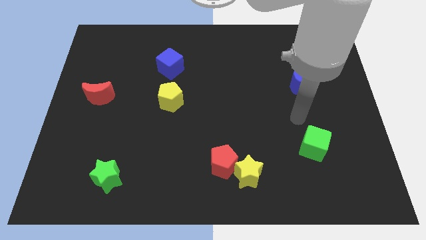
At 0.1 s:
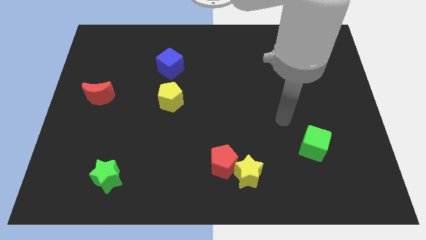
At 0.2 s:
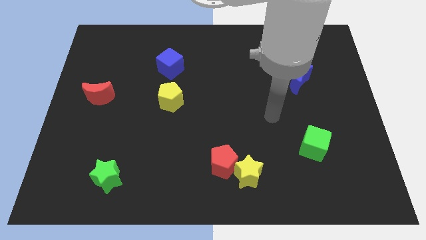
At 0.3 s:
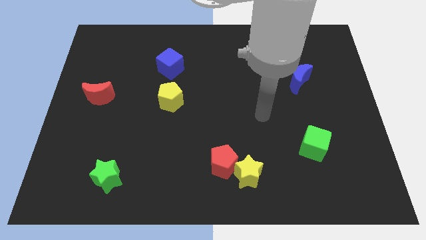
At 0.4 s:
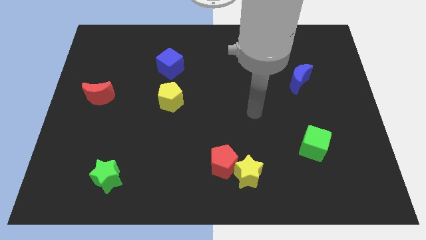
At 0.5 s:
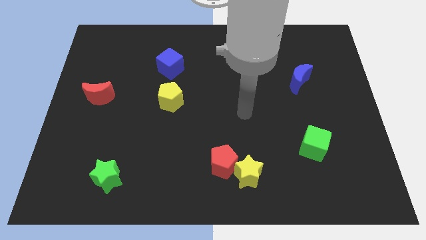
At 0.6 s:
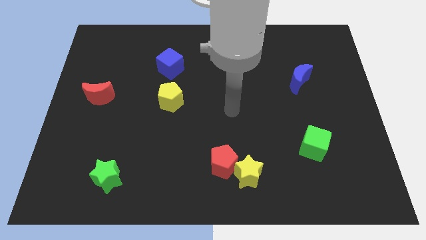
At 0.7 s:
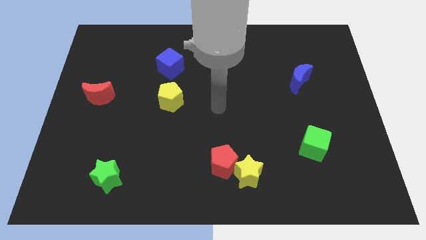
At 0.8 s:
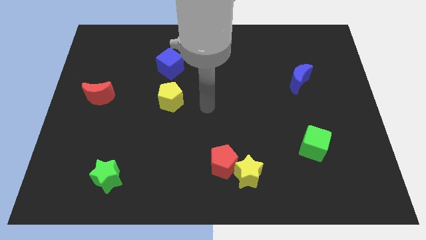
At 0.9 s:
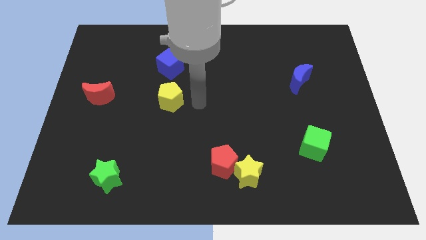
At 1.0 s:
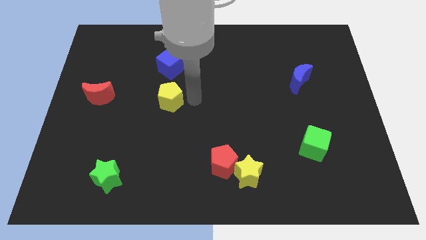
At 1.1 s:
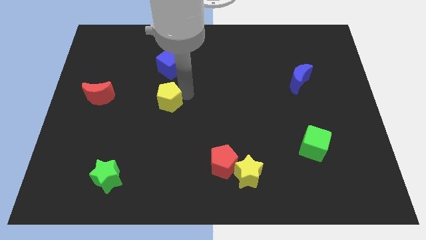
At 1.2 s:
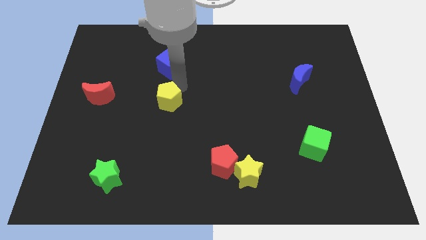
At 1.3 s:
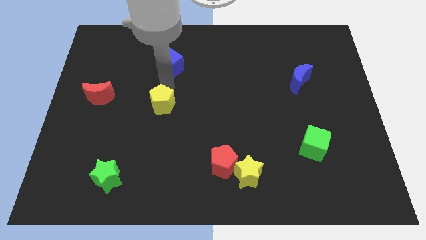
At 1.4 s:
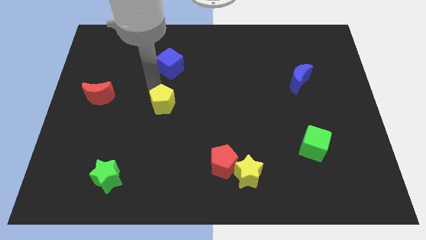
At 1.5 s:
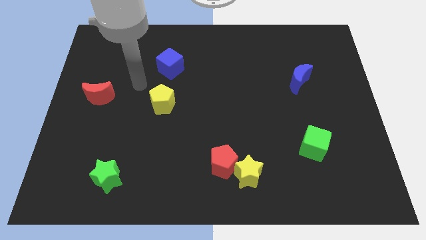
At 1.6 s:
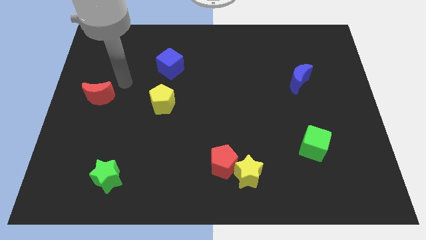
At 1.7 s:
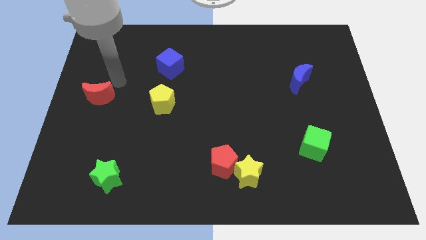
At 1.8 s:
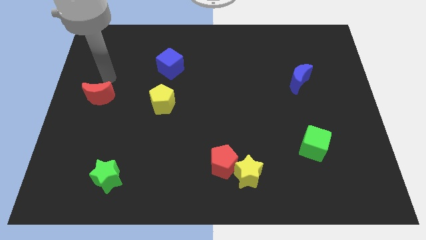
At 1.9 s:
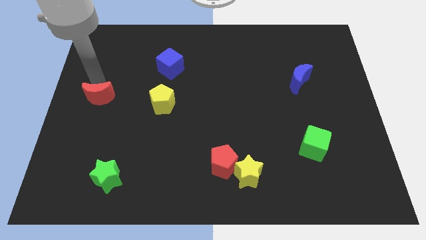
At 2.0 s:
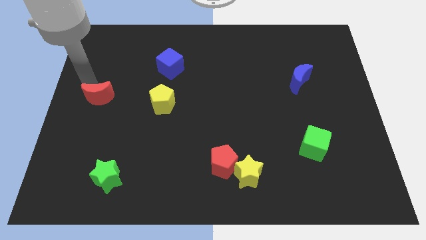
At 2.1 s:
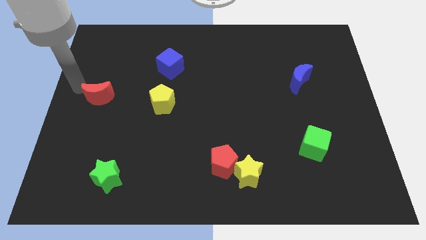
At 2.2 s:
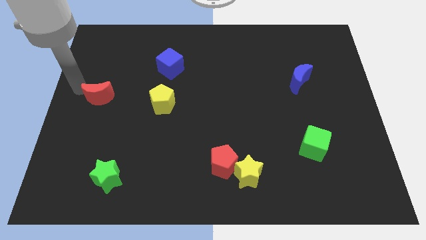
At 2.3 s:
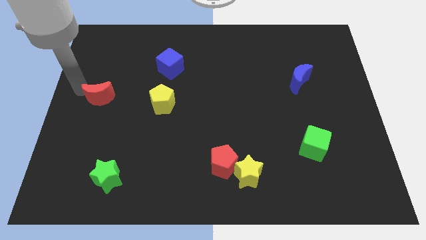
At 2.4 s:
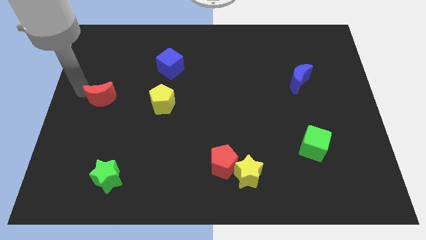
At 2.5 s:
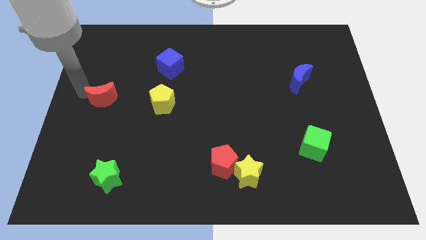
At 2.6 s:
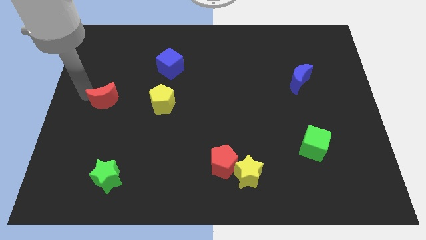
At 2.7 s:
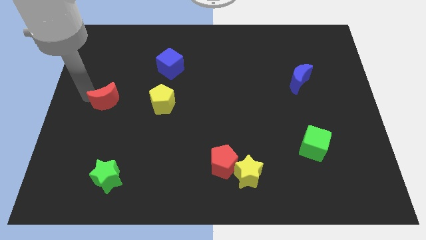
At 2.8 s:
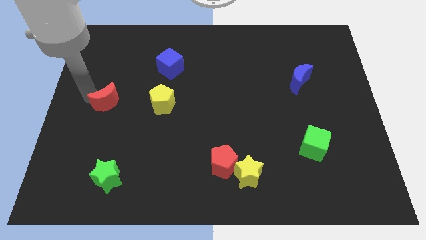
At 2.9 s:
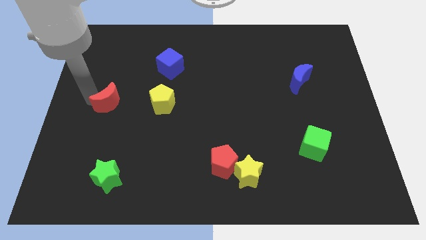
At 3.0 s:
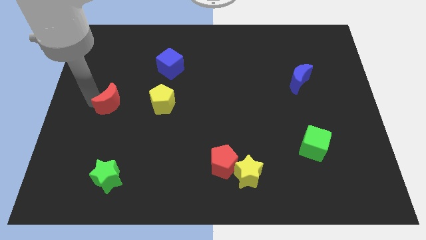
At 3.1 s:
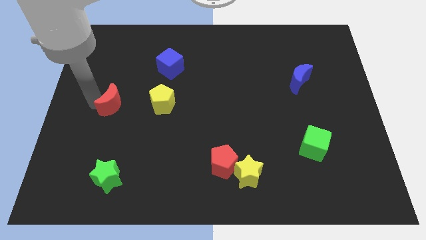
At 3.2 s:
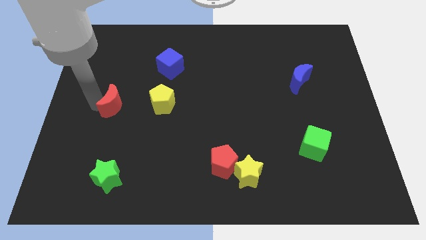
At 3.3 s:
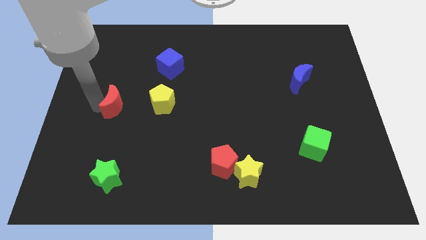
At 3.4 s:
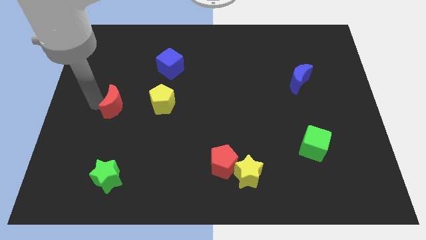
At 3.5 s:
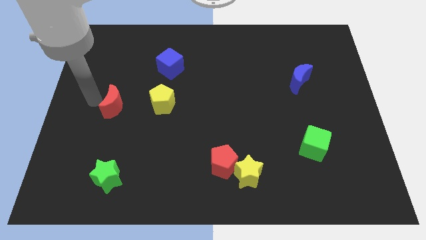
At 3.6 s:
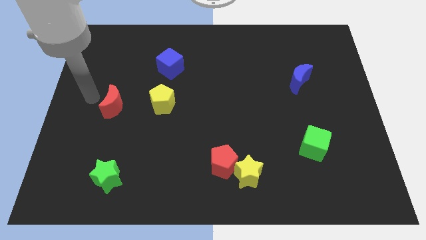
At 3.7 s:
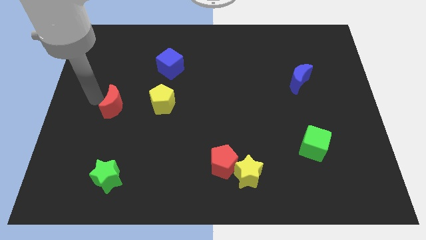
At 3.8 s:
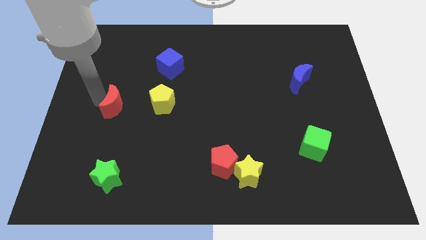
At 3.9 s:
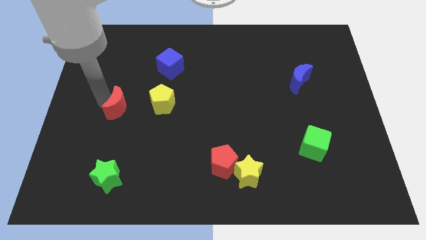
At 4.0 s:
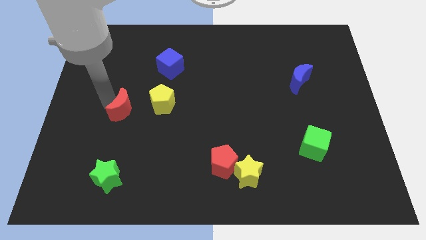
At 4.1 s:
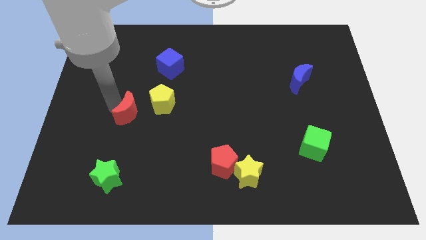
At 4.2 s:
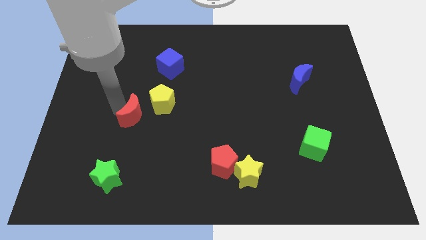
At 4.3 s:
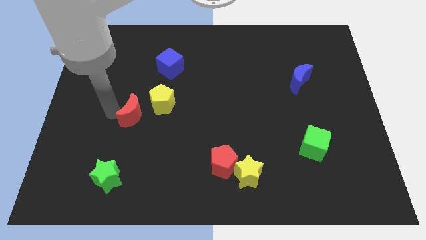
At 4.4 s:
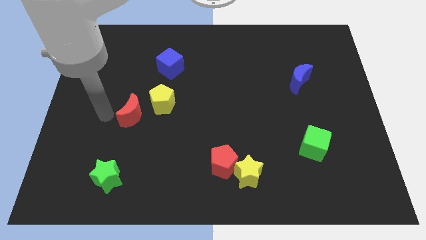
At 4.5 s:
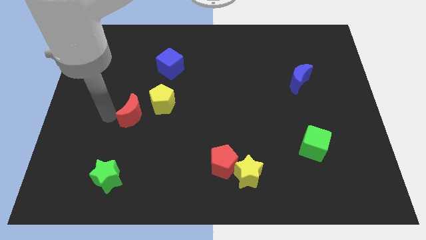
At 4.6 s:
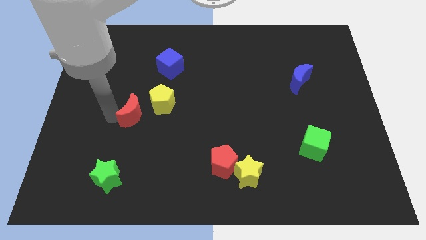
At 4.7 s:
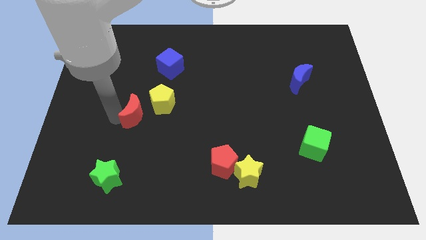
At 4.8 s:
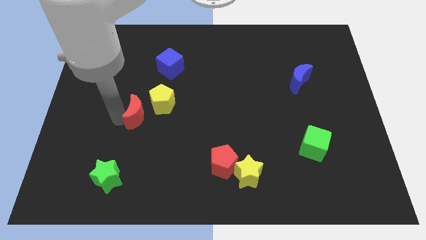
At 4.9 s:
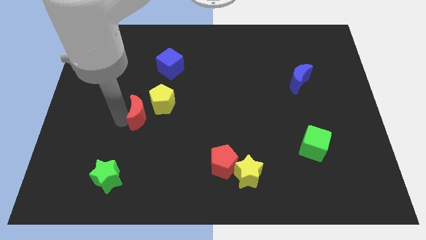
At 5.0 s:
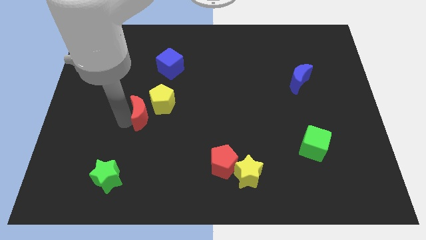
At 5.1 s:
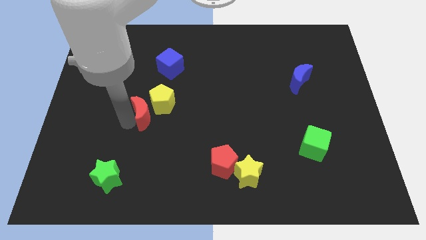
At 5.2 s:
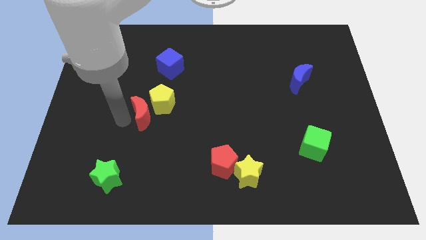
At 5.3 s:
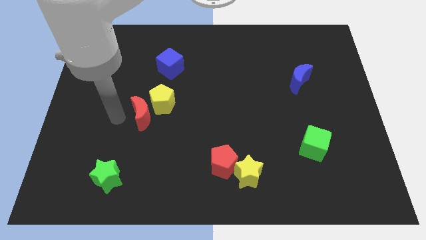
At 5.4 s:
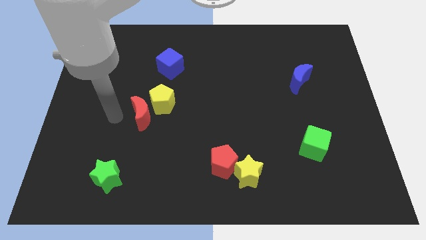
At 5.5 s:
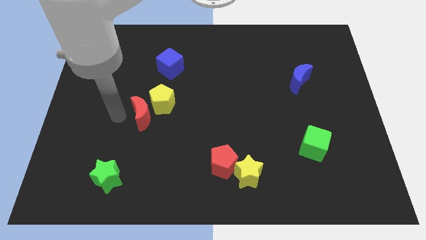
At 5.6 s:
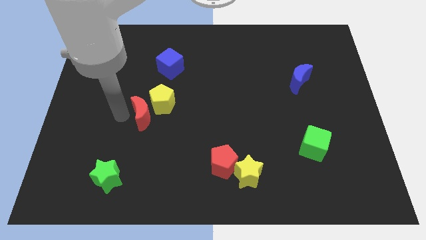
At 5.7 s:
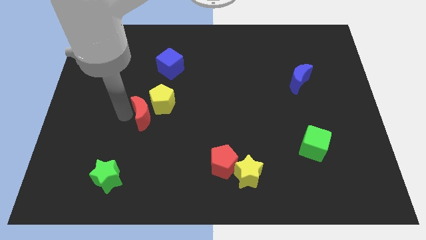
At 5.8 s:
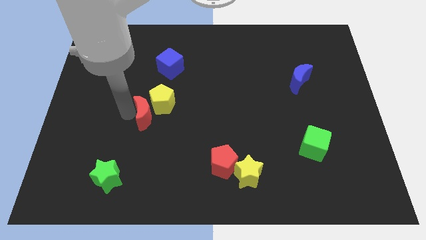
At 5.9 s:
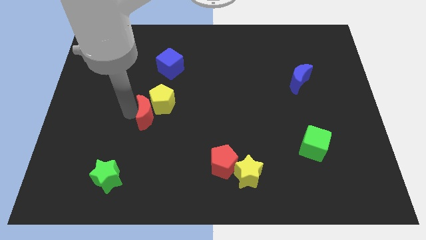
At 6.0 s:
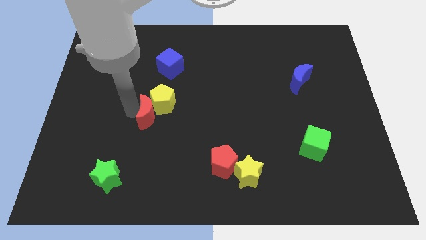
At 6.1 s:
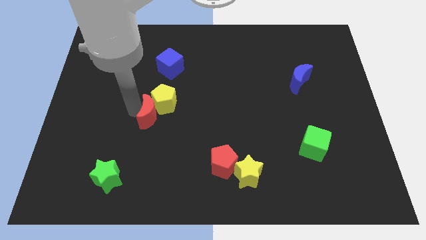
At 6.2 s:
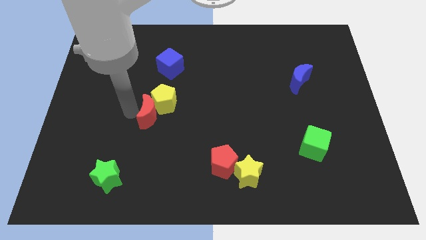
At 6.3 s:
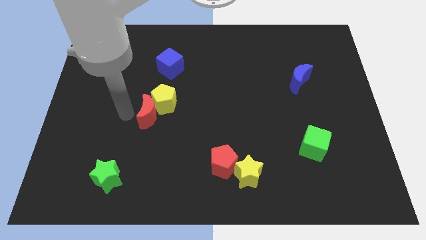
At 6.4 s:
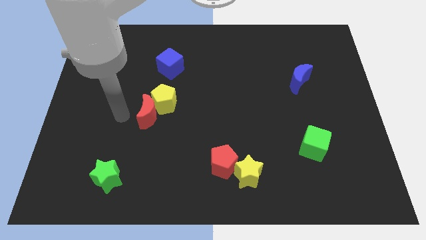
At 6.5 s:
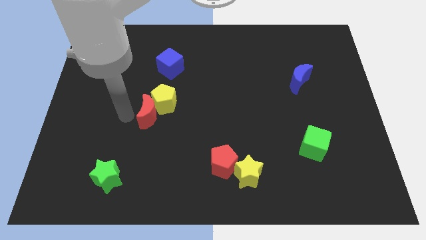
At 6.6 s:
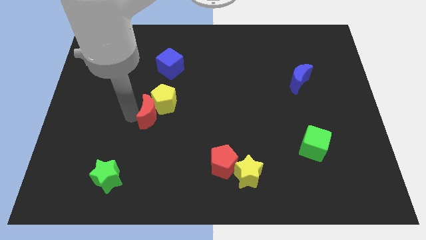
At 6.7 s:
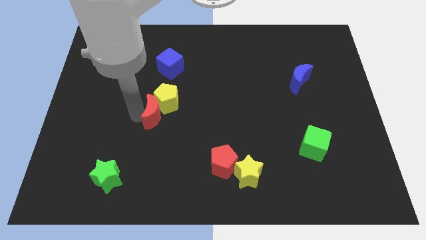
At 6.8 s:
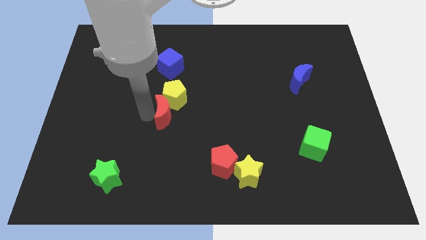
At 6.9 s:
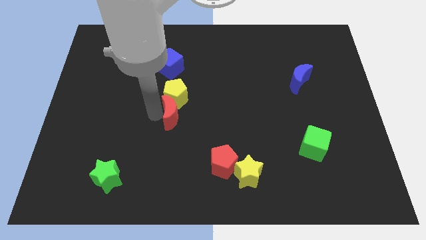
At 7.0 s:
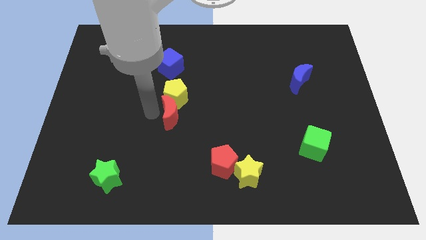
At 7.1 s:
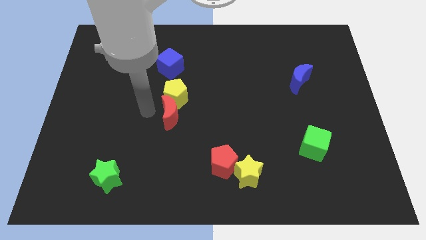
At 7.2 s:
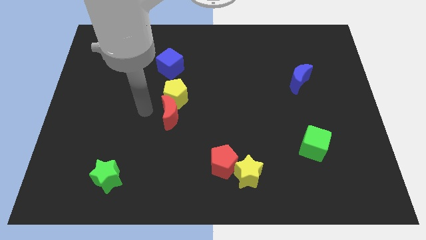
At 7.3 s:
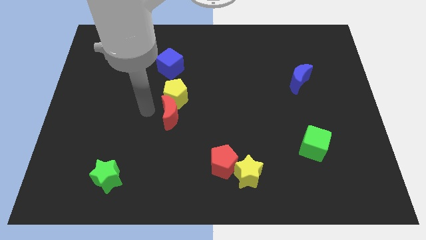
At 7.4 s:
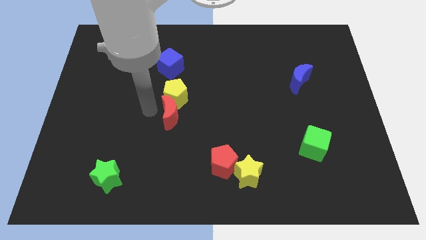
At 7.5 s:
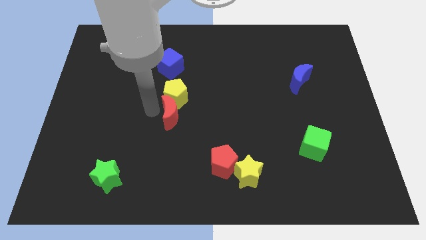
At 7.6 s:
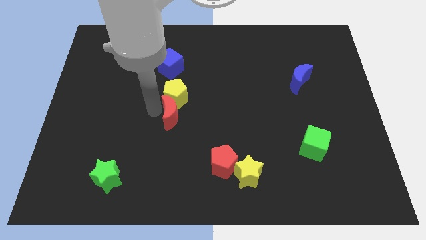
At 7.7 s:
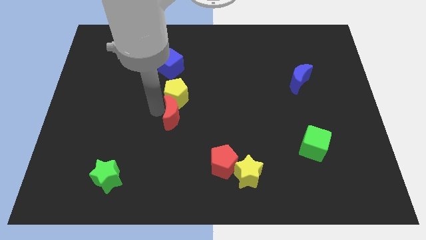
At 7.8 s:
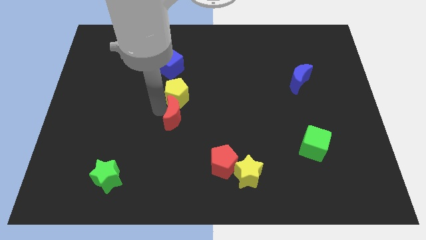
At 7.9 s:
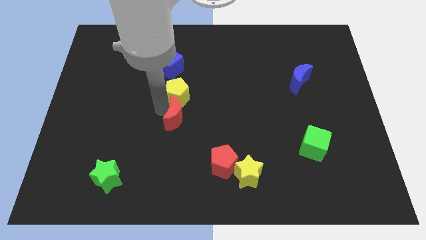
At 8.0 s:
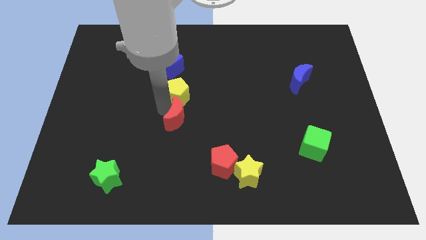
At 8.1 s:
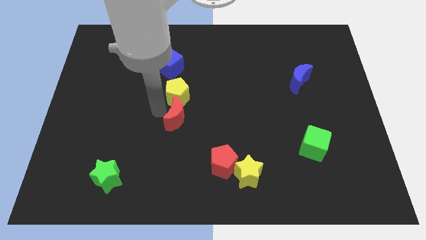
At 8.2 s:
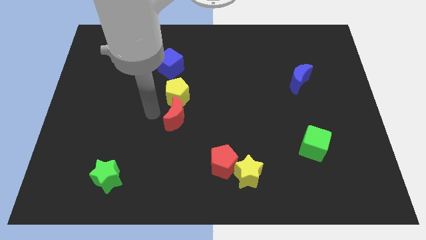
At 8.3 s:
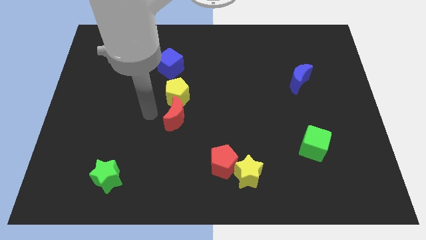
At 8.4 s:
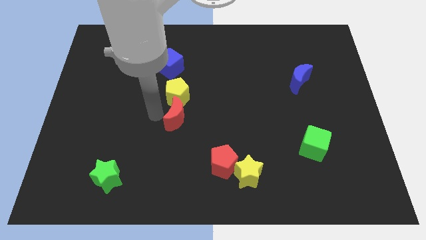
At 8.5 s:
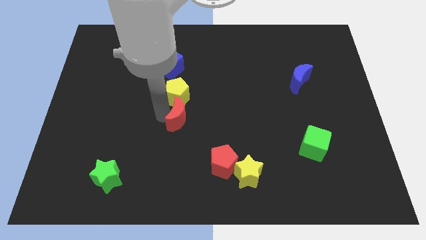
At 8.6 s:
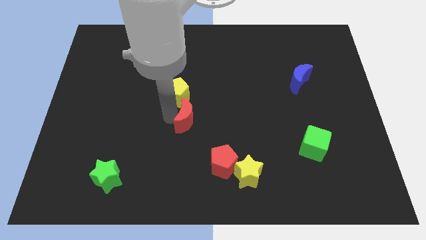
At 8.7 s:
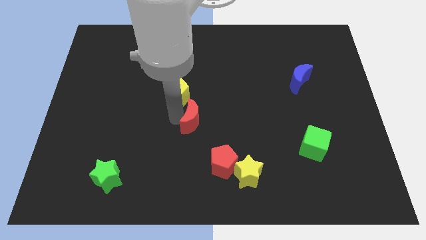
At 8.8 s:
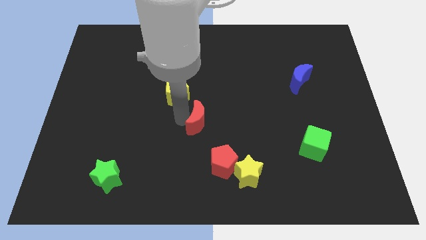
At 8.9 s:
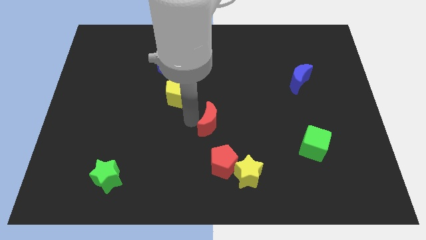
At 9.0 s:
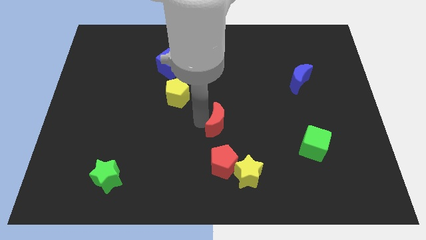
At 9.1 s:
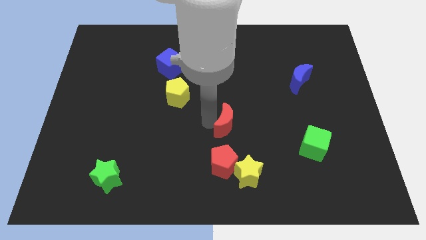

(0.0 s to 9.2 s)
put the red moon to the top of the yellow star
